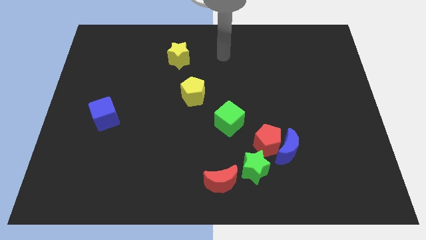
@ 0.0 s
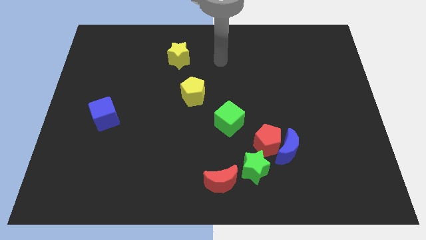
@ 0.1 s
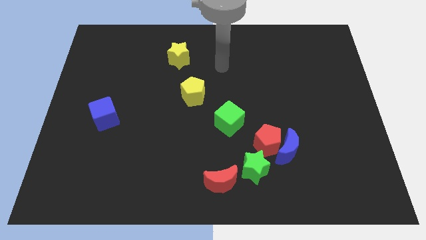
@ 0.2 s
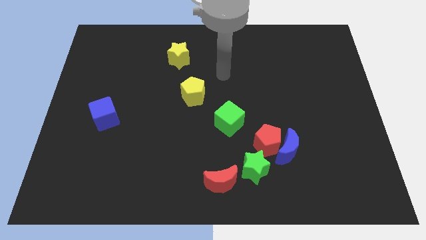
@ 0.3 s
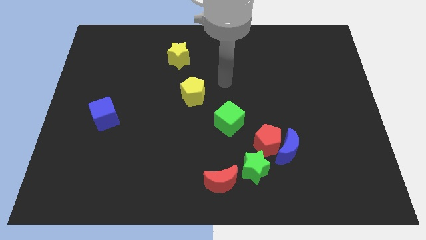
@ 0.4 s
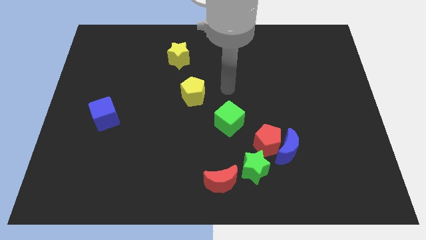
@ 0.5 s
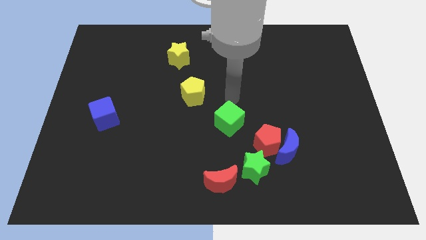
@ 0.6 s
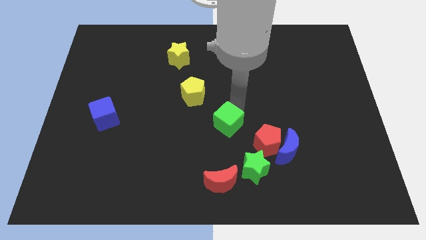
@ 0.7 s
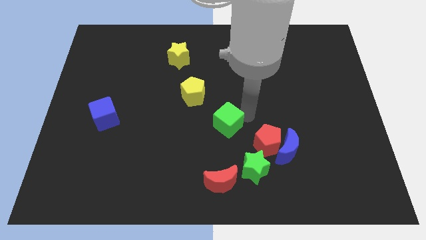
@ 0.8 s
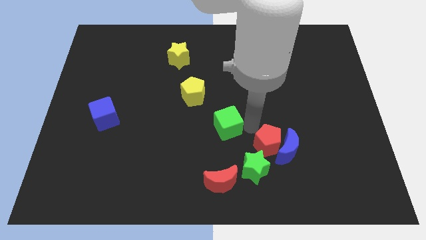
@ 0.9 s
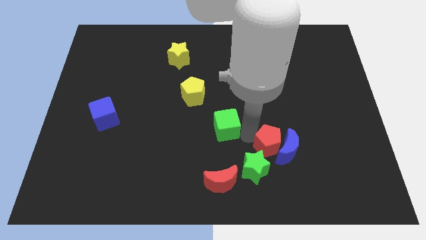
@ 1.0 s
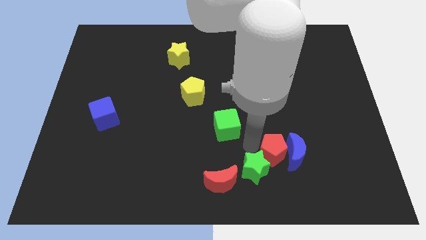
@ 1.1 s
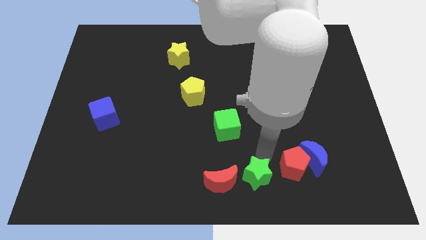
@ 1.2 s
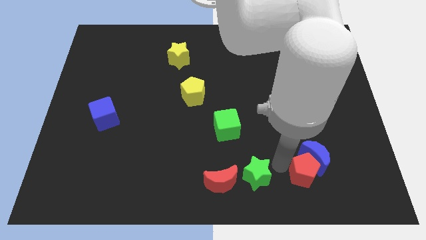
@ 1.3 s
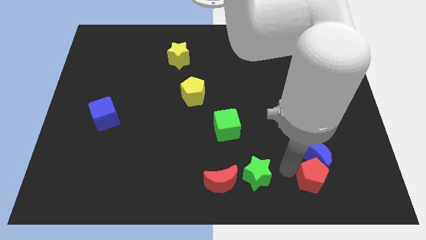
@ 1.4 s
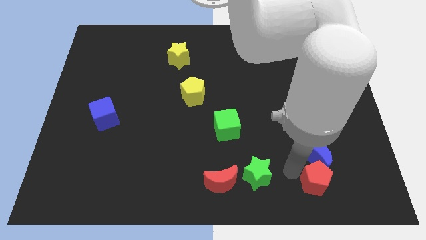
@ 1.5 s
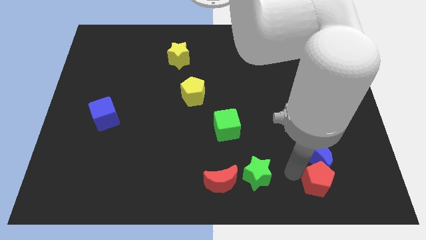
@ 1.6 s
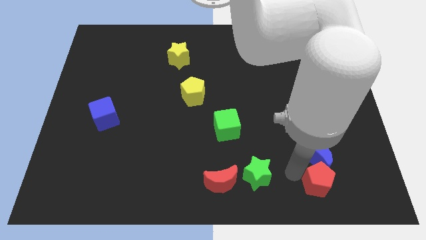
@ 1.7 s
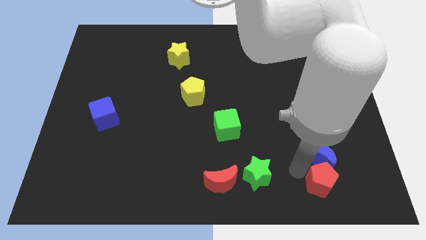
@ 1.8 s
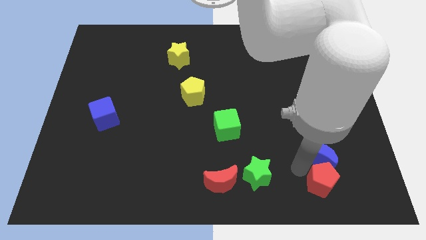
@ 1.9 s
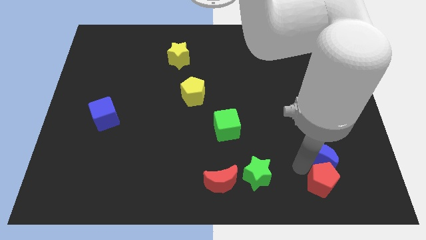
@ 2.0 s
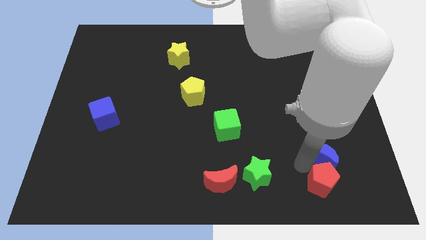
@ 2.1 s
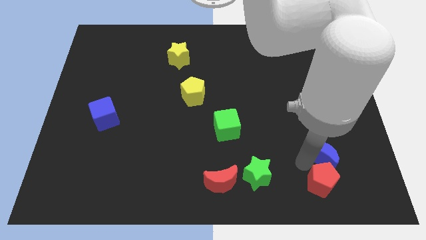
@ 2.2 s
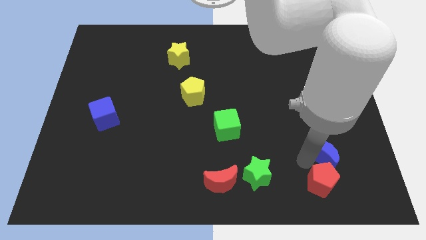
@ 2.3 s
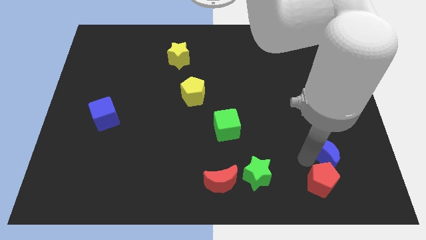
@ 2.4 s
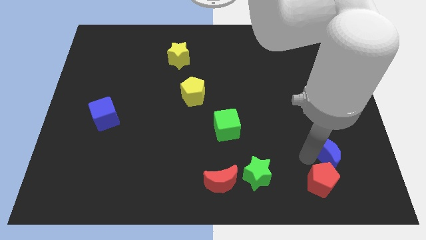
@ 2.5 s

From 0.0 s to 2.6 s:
pull the blue moon apart from the red pentagon and green star

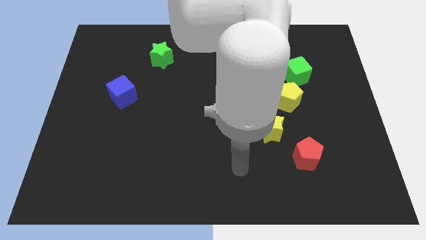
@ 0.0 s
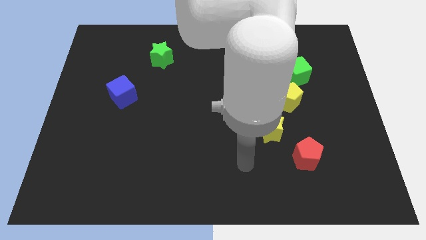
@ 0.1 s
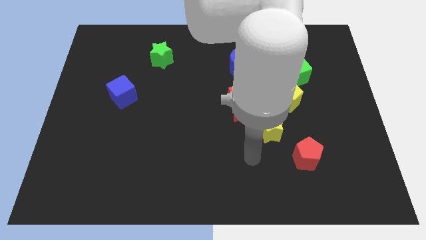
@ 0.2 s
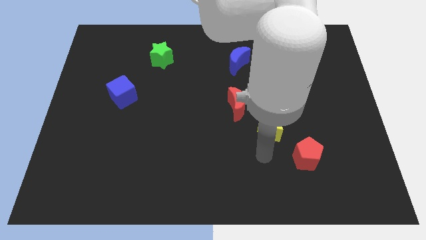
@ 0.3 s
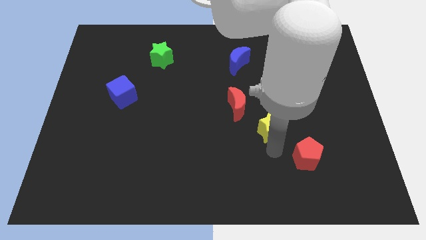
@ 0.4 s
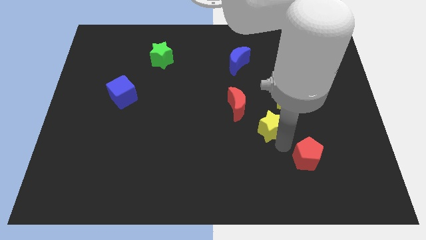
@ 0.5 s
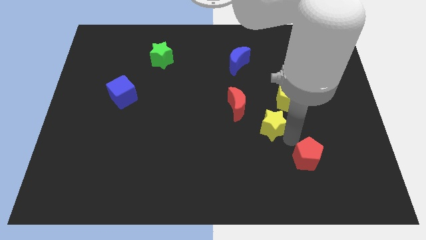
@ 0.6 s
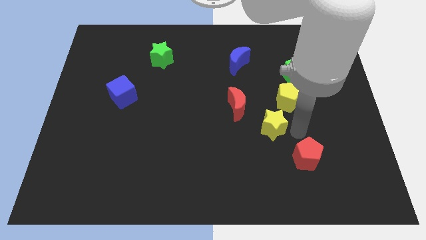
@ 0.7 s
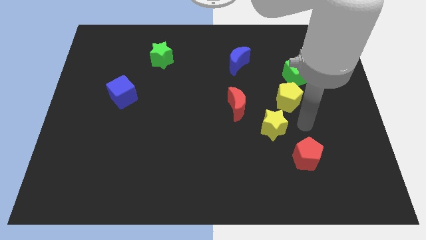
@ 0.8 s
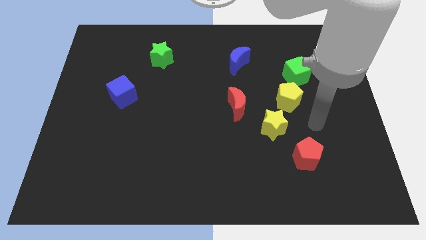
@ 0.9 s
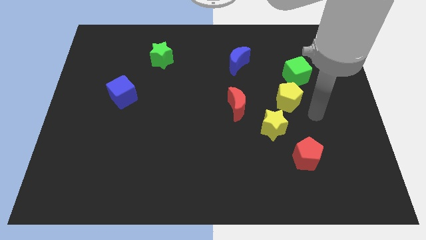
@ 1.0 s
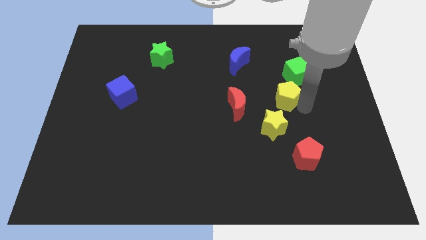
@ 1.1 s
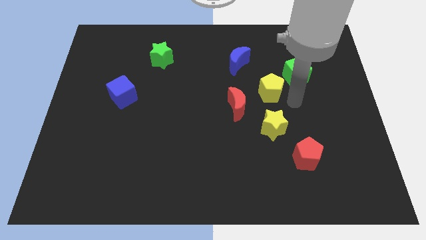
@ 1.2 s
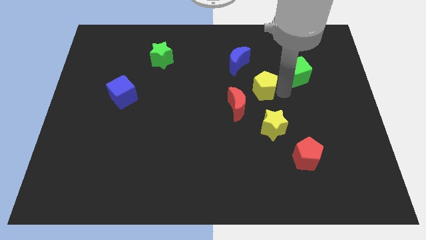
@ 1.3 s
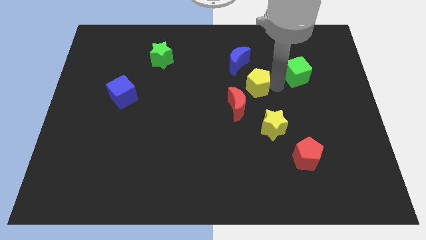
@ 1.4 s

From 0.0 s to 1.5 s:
pull the green cube apart from the yellow pentagon

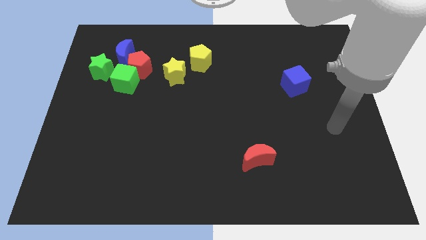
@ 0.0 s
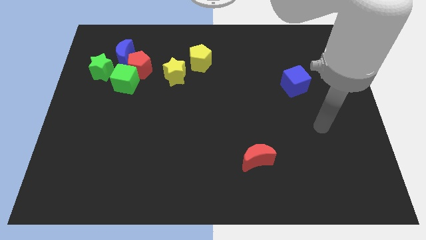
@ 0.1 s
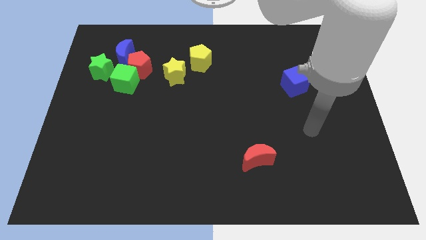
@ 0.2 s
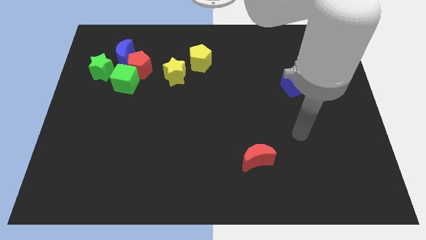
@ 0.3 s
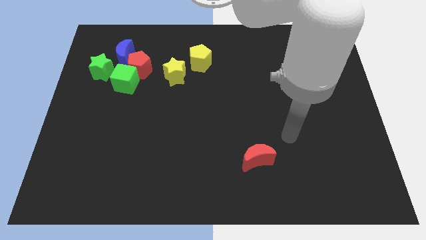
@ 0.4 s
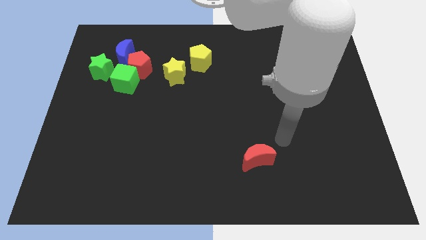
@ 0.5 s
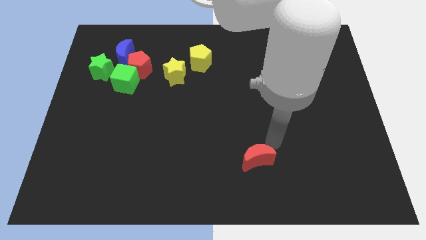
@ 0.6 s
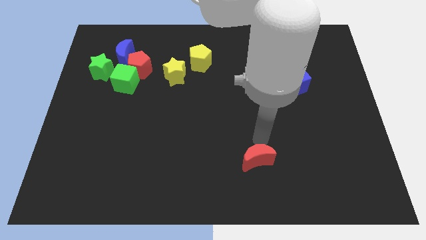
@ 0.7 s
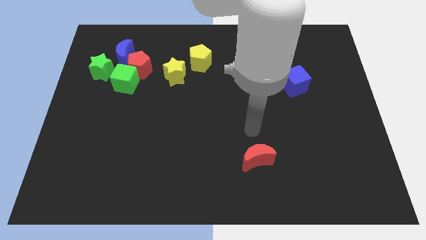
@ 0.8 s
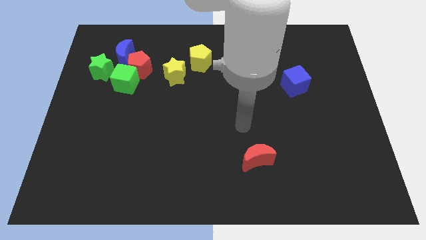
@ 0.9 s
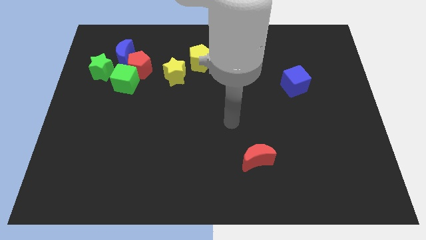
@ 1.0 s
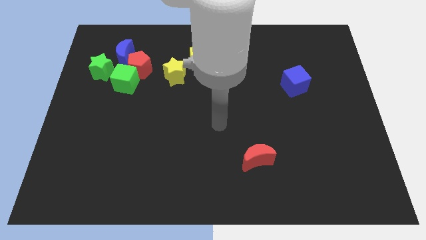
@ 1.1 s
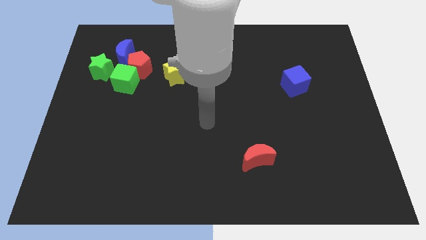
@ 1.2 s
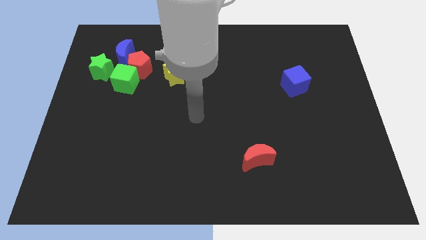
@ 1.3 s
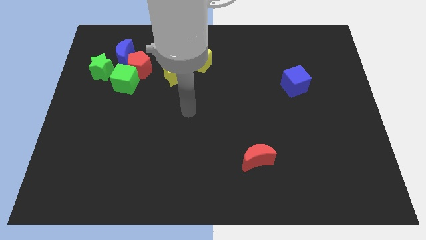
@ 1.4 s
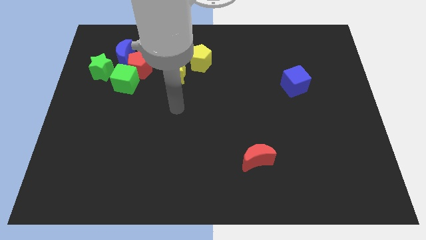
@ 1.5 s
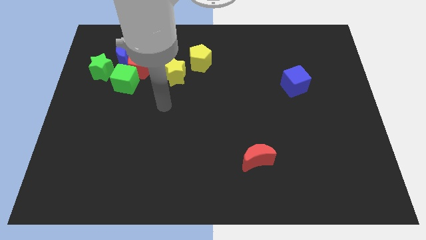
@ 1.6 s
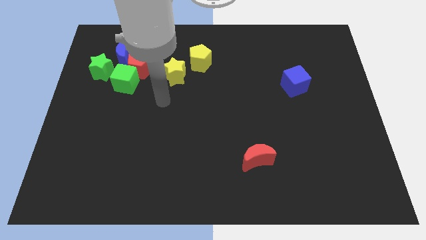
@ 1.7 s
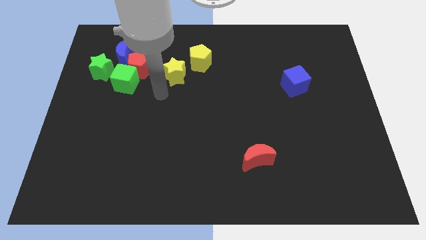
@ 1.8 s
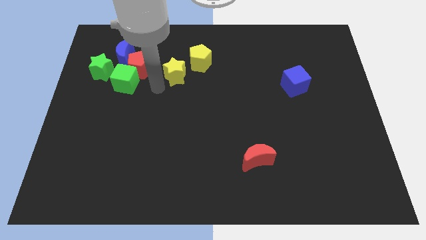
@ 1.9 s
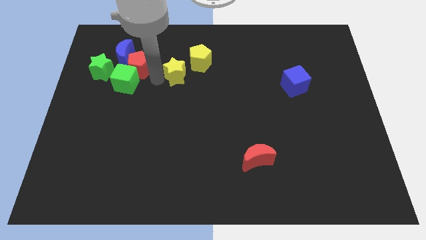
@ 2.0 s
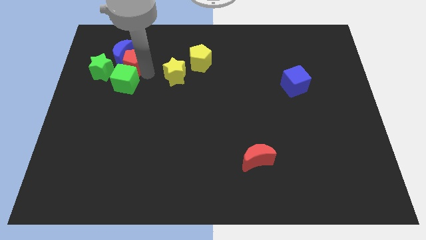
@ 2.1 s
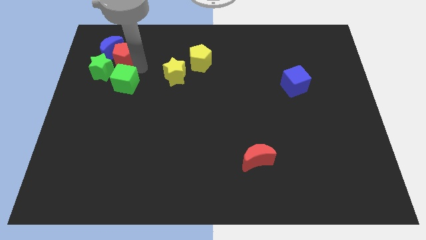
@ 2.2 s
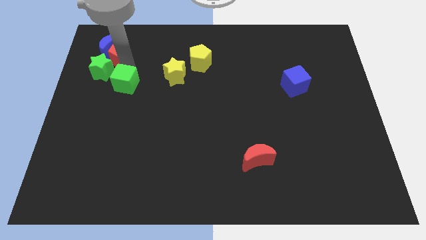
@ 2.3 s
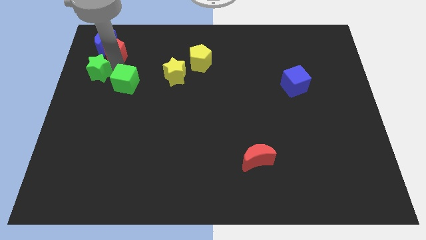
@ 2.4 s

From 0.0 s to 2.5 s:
separate the green cube from the group of blocks

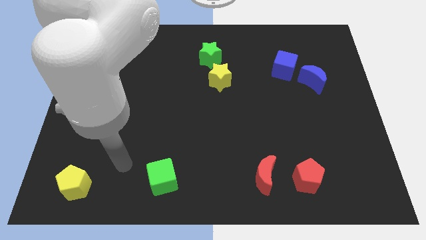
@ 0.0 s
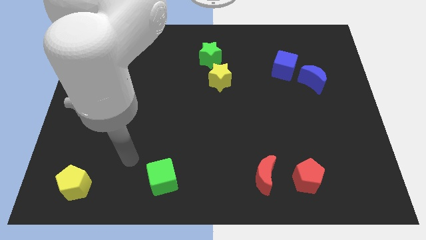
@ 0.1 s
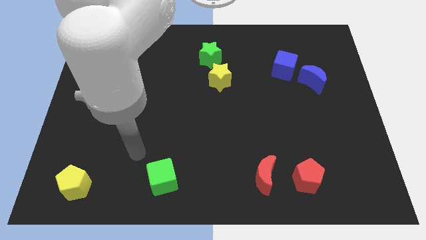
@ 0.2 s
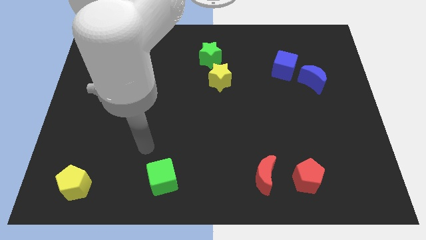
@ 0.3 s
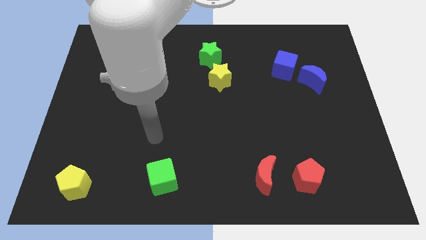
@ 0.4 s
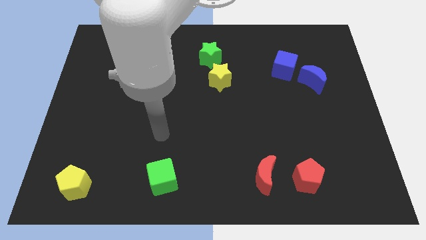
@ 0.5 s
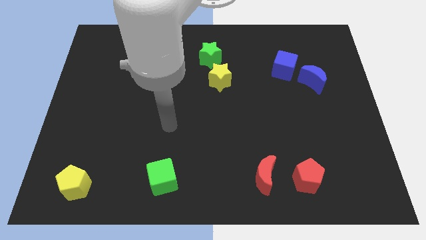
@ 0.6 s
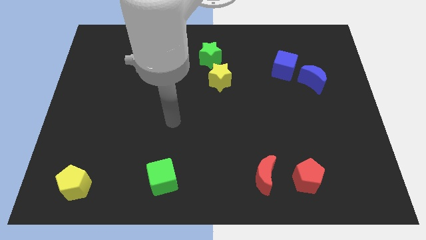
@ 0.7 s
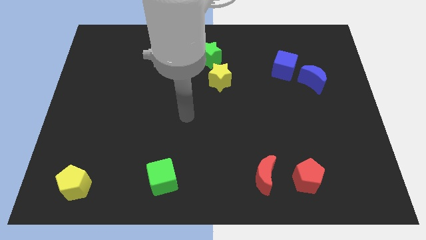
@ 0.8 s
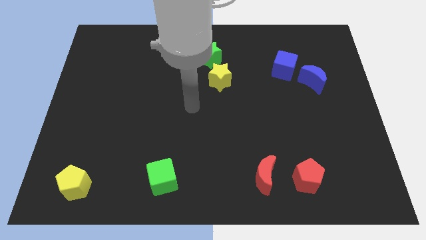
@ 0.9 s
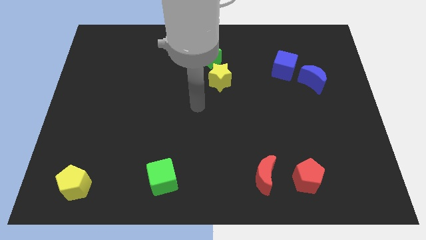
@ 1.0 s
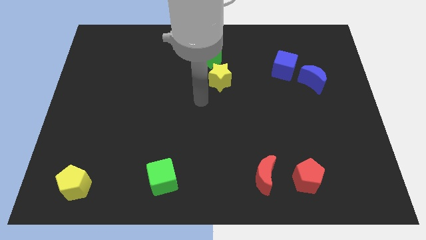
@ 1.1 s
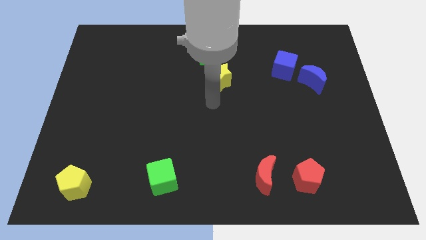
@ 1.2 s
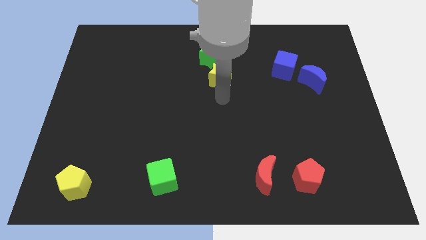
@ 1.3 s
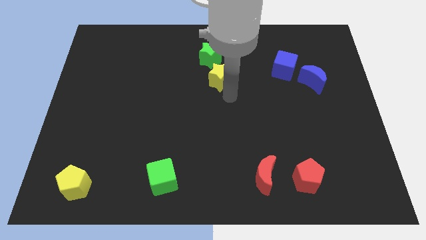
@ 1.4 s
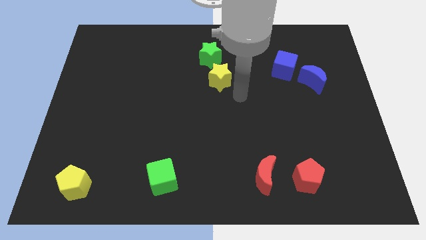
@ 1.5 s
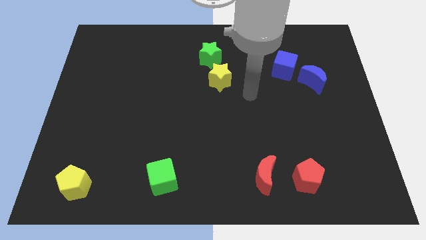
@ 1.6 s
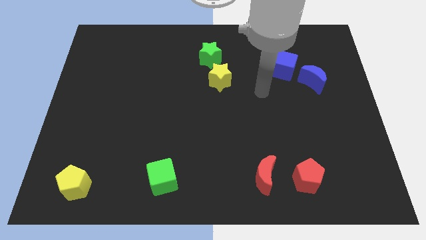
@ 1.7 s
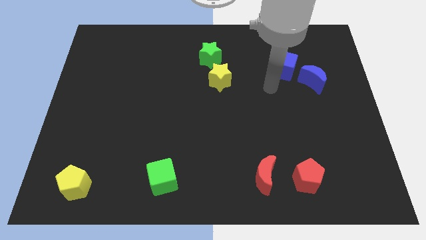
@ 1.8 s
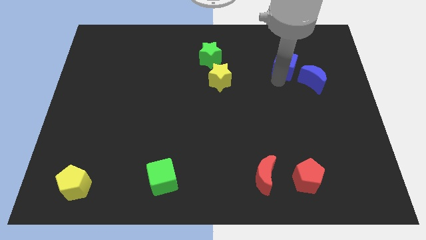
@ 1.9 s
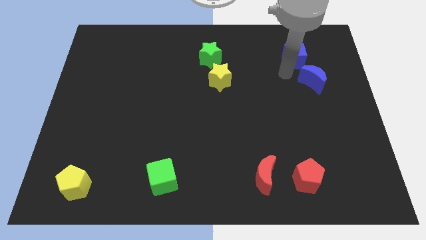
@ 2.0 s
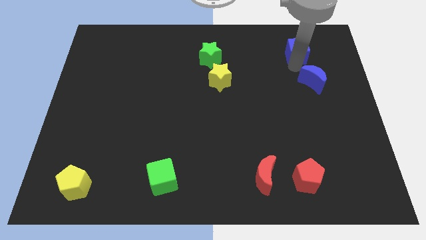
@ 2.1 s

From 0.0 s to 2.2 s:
pull the blue moon apart from the blue cube

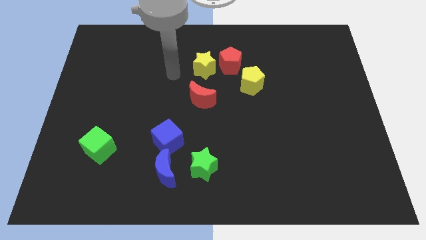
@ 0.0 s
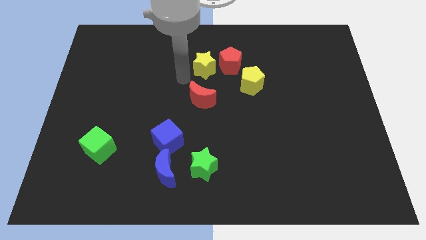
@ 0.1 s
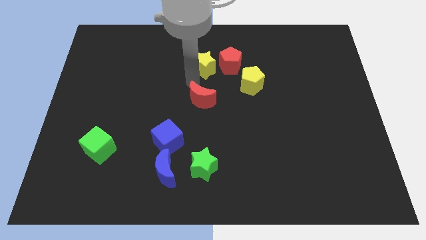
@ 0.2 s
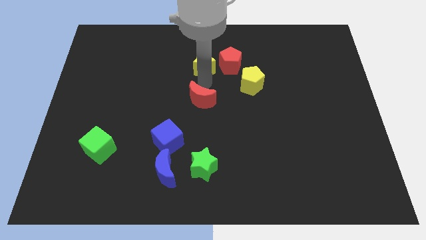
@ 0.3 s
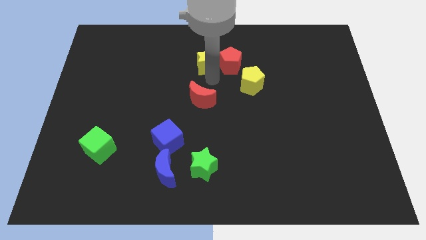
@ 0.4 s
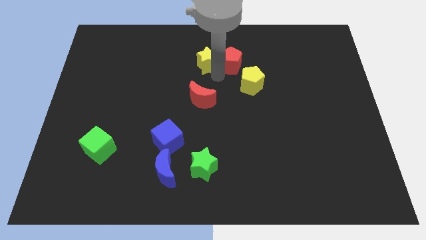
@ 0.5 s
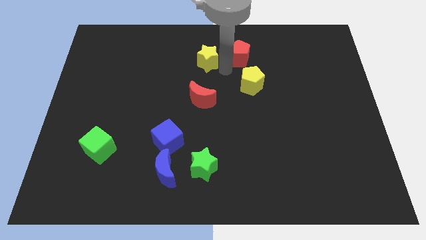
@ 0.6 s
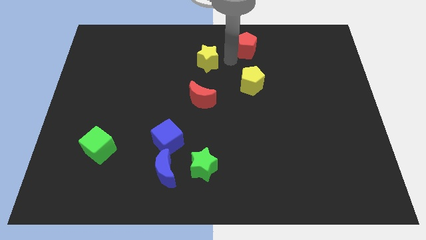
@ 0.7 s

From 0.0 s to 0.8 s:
separate the yellow star from the red pentagon
